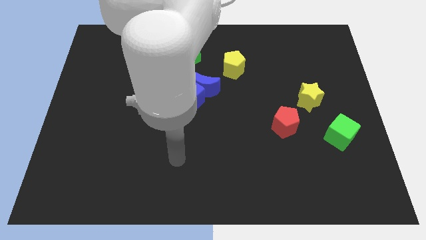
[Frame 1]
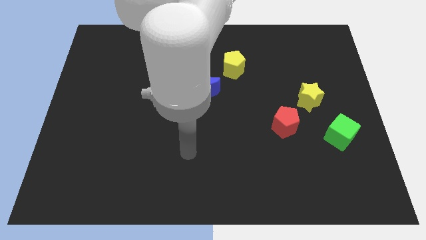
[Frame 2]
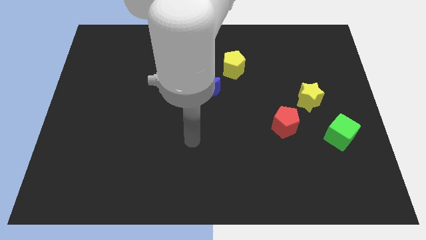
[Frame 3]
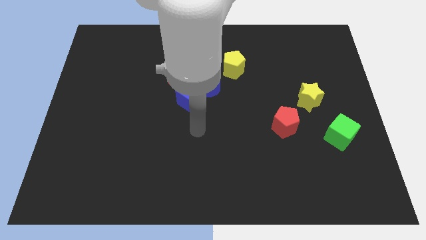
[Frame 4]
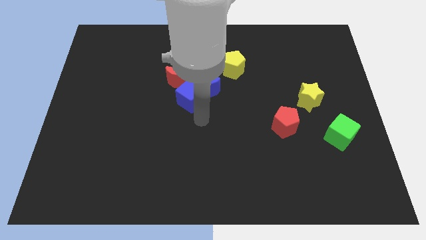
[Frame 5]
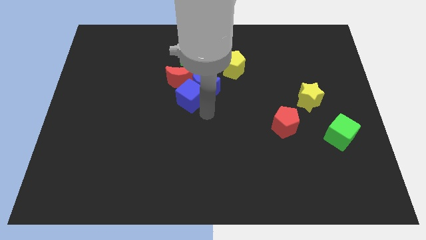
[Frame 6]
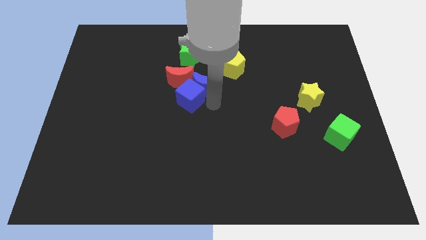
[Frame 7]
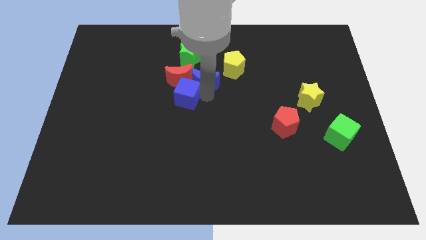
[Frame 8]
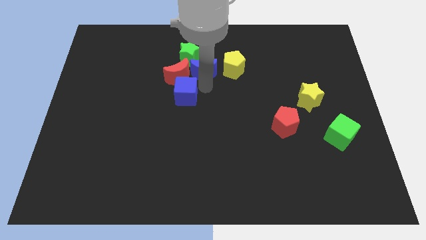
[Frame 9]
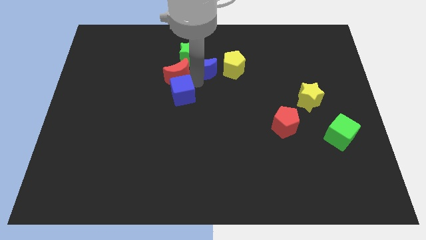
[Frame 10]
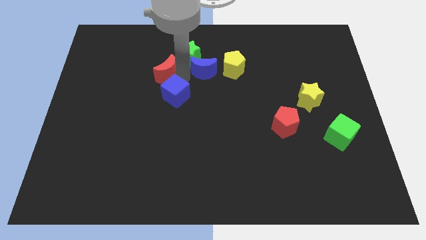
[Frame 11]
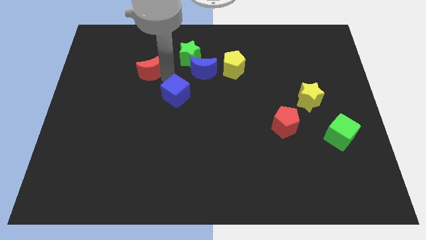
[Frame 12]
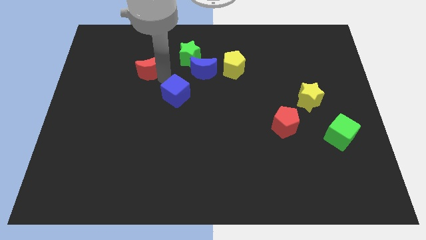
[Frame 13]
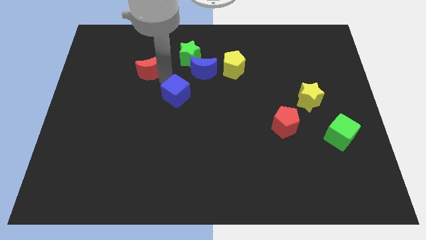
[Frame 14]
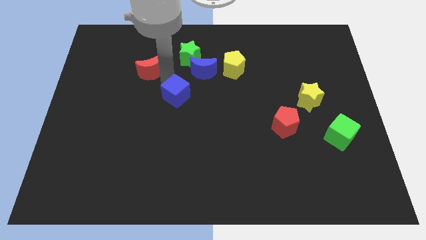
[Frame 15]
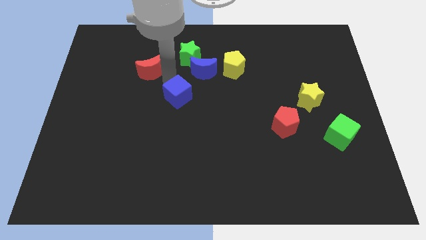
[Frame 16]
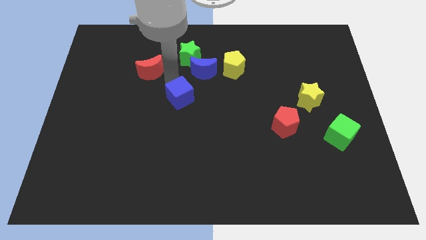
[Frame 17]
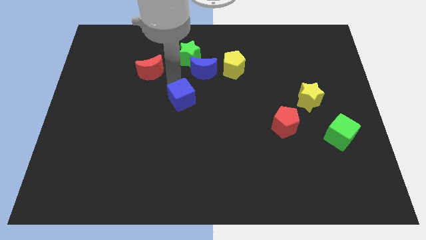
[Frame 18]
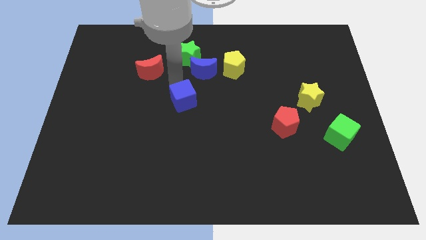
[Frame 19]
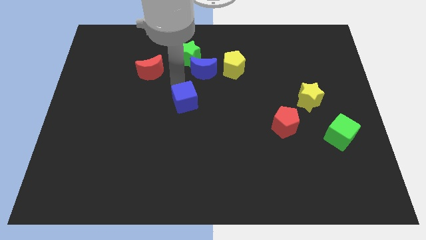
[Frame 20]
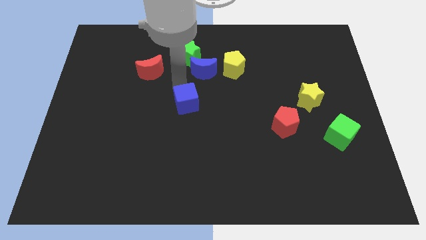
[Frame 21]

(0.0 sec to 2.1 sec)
move the blue cube away from the blue moon and red moon

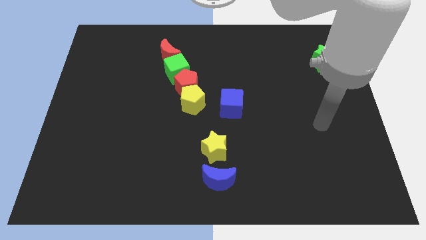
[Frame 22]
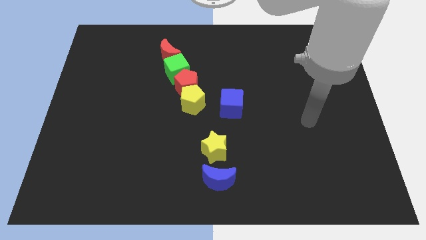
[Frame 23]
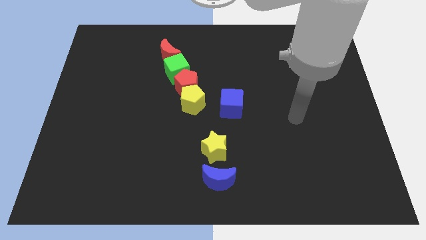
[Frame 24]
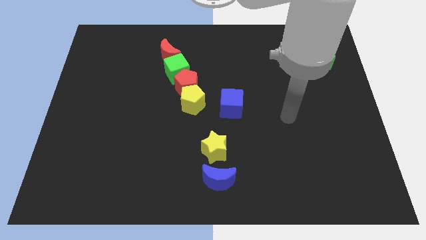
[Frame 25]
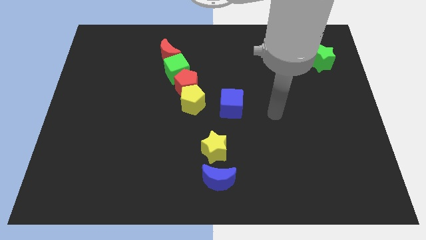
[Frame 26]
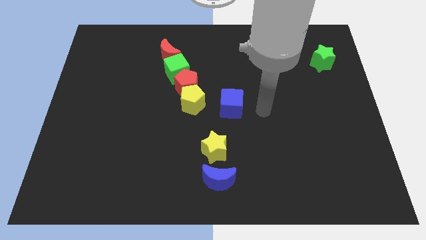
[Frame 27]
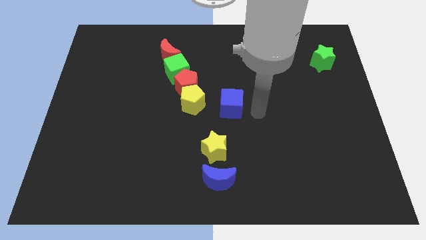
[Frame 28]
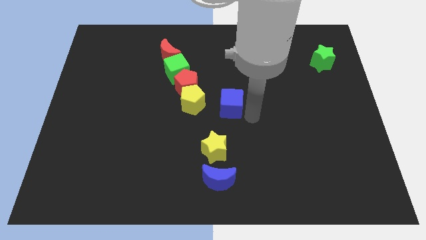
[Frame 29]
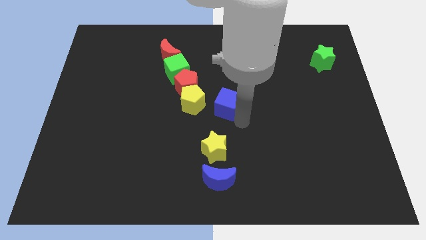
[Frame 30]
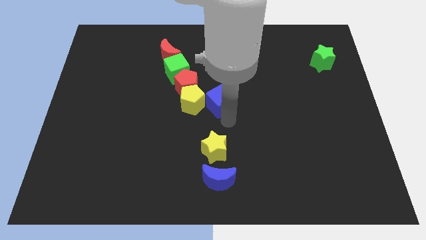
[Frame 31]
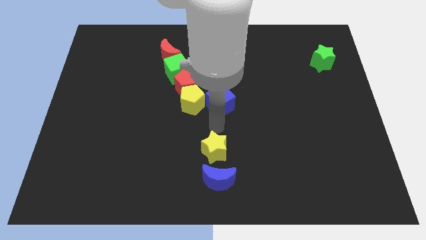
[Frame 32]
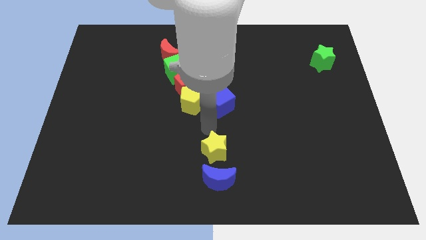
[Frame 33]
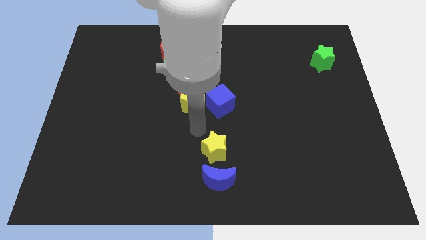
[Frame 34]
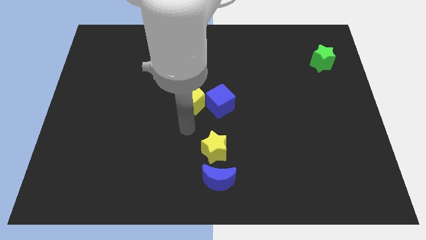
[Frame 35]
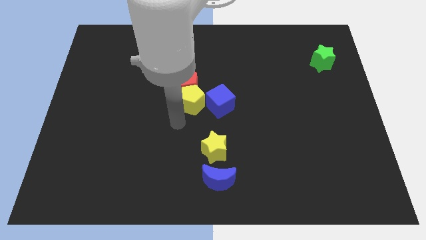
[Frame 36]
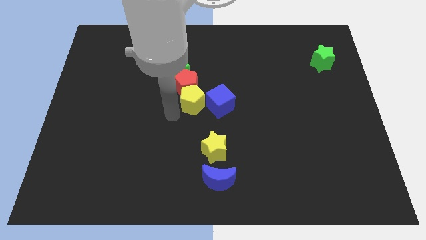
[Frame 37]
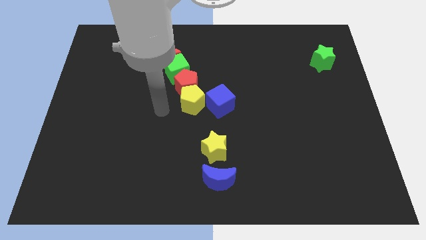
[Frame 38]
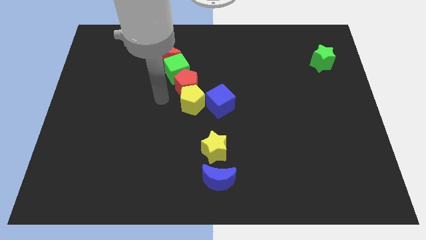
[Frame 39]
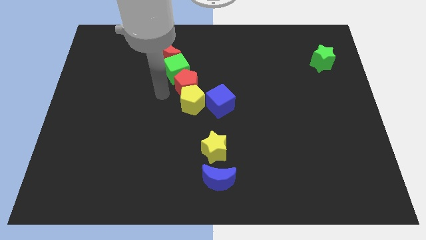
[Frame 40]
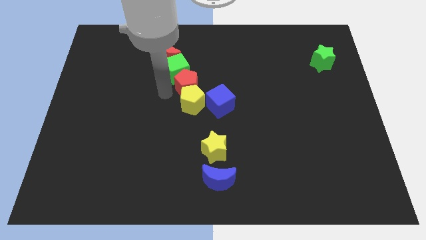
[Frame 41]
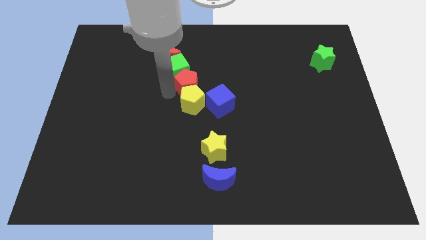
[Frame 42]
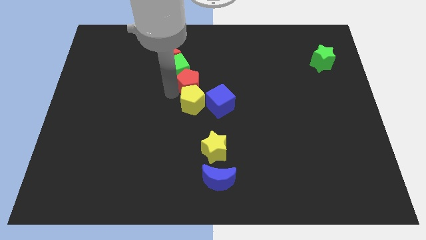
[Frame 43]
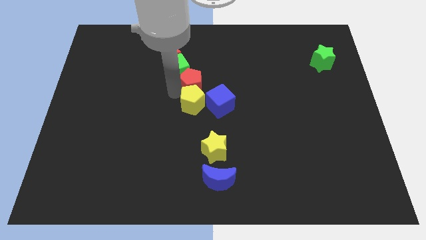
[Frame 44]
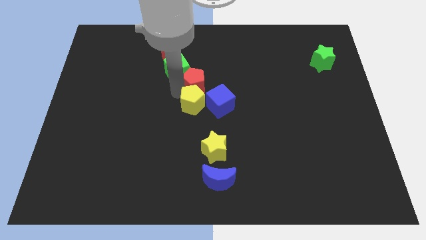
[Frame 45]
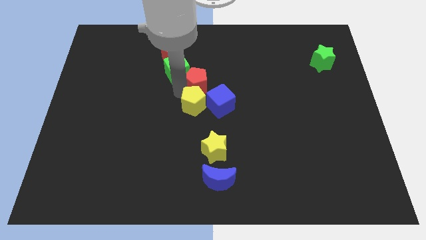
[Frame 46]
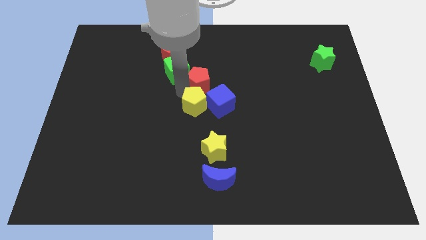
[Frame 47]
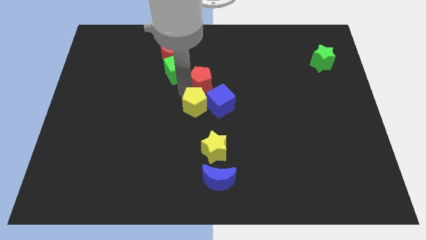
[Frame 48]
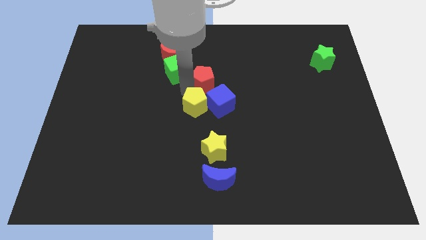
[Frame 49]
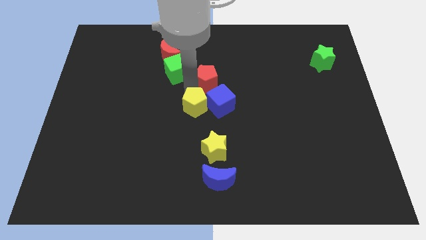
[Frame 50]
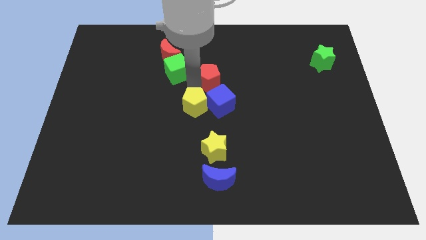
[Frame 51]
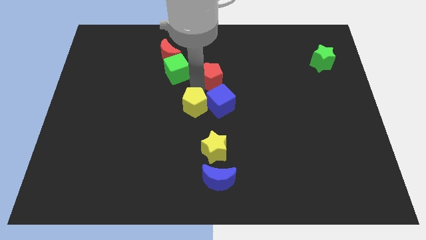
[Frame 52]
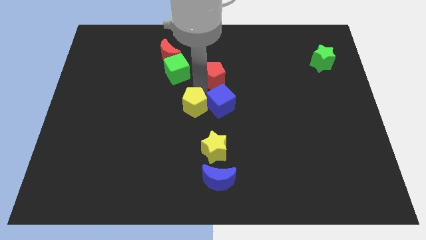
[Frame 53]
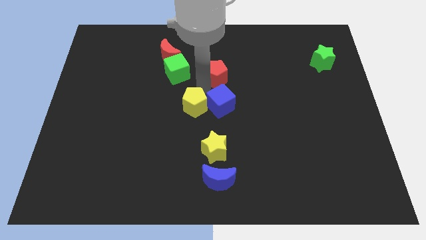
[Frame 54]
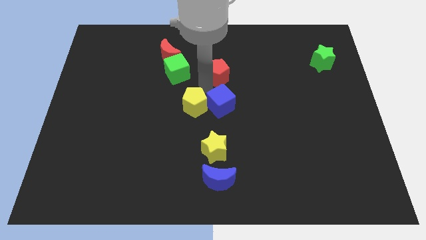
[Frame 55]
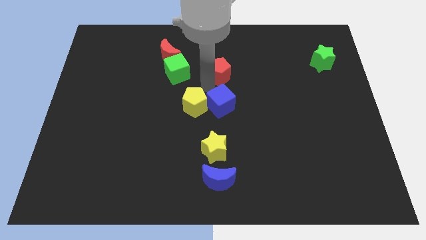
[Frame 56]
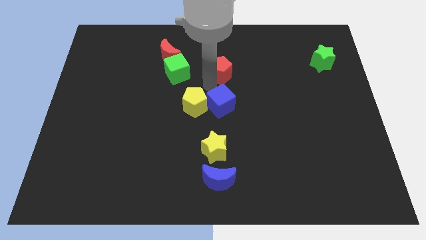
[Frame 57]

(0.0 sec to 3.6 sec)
move the red pentagon away from the yellow pentagon and green cube

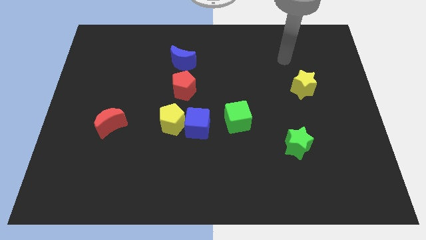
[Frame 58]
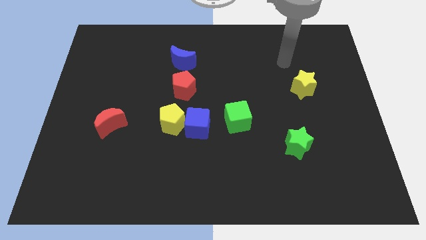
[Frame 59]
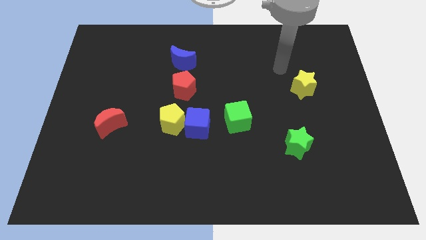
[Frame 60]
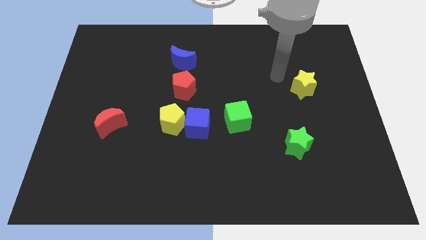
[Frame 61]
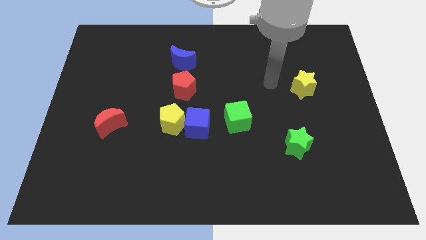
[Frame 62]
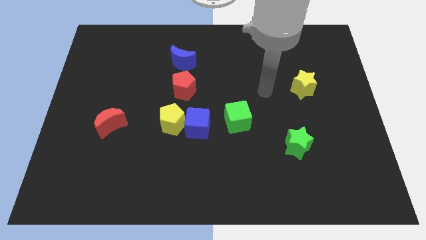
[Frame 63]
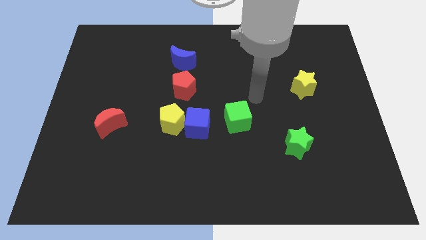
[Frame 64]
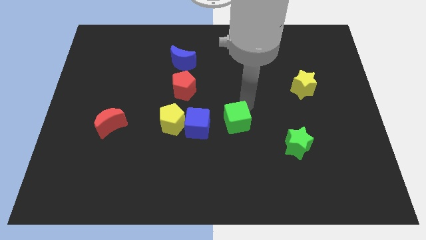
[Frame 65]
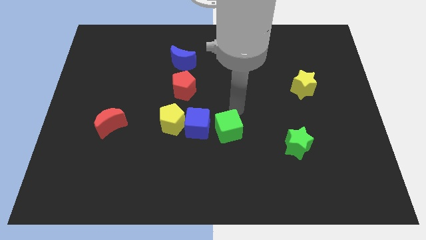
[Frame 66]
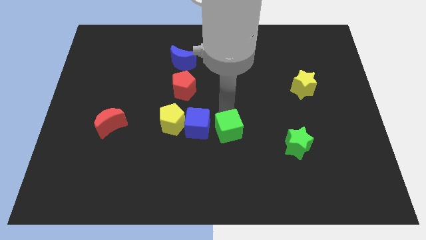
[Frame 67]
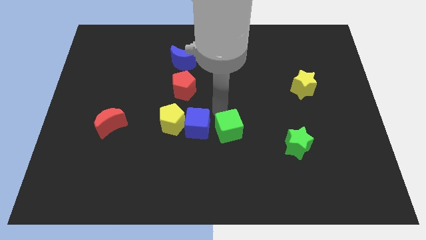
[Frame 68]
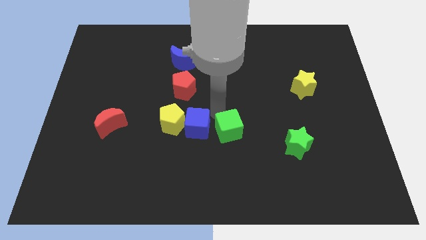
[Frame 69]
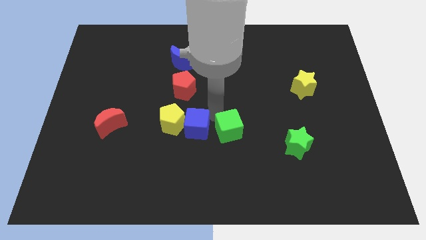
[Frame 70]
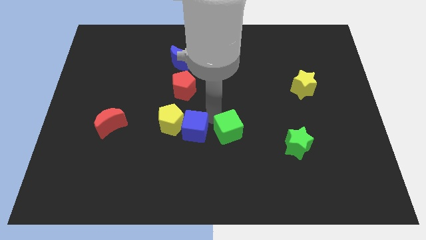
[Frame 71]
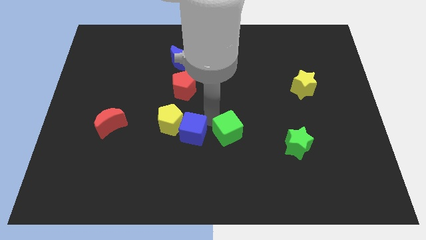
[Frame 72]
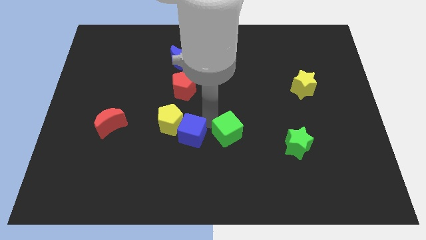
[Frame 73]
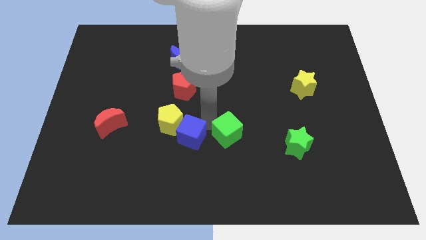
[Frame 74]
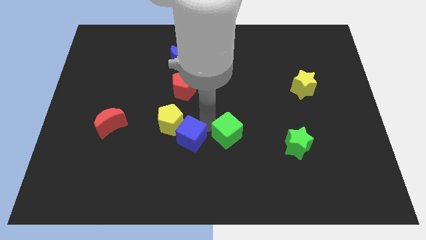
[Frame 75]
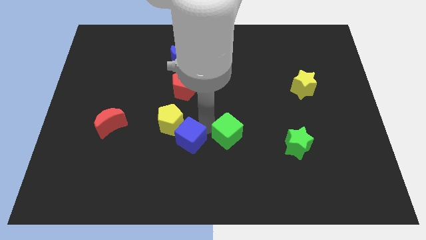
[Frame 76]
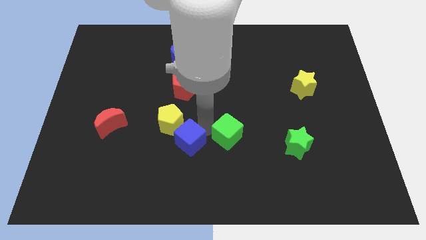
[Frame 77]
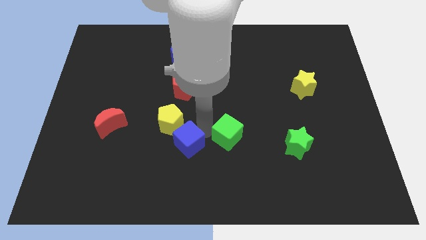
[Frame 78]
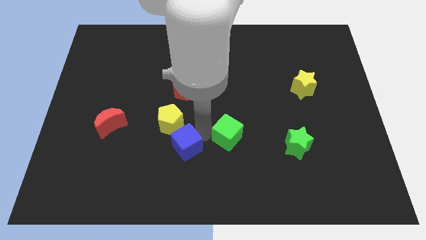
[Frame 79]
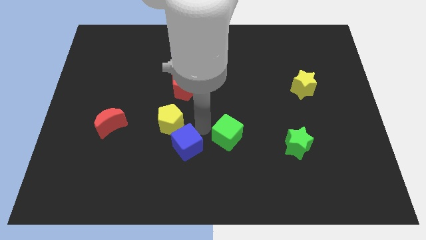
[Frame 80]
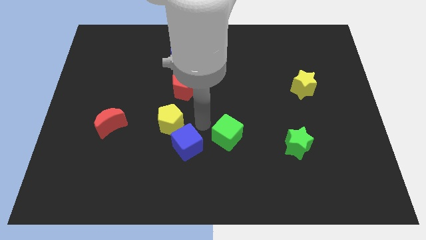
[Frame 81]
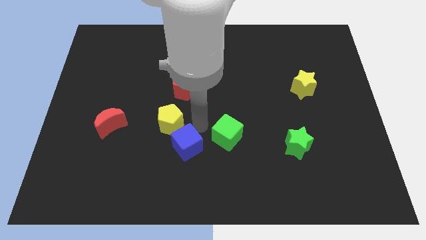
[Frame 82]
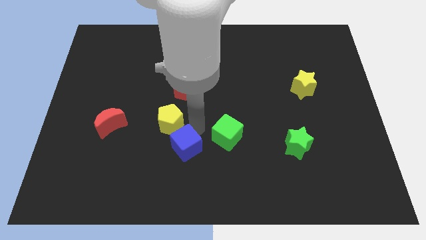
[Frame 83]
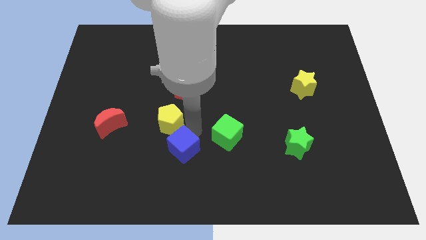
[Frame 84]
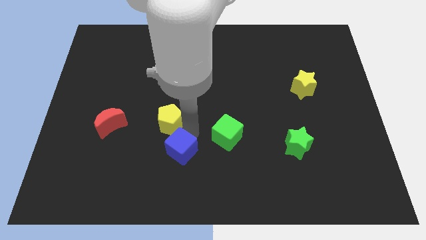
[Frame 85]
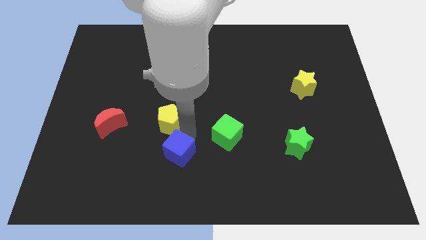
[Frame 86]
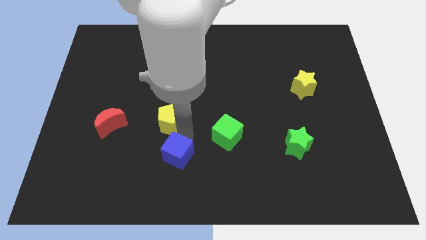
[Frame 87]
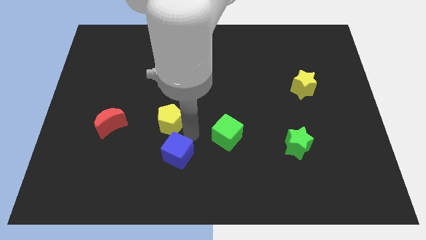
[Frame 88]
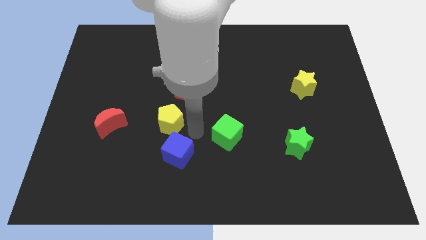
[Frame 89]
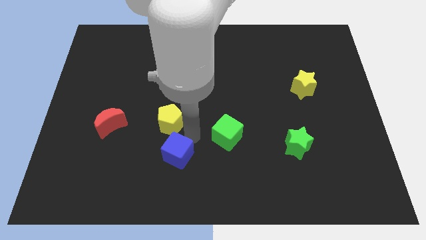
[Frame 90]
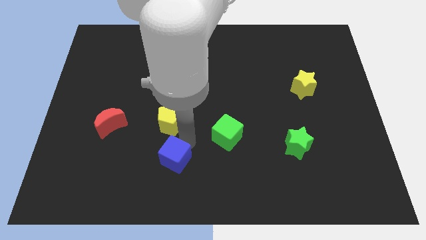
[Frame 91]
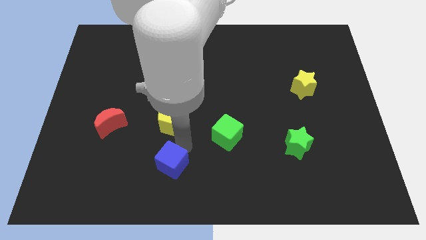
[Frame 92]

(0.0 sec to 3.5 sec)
pull the blue cube apart from the yellow pentagon and green cube

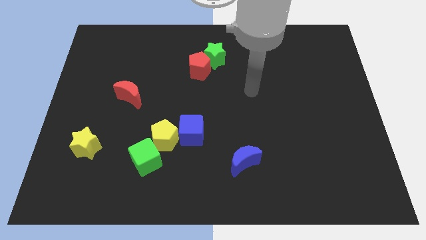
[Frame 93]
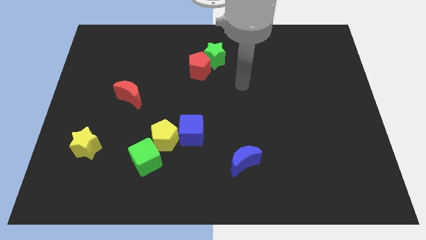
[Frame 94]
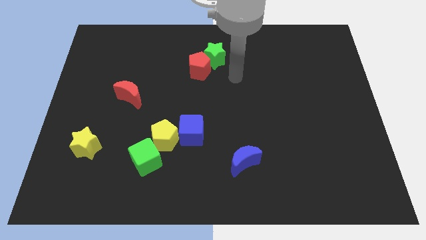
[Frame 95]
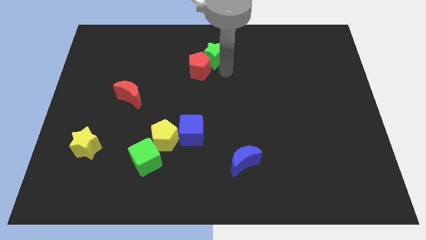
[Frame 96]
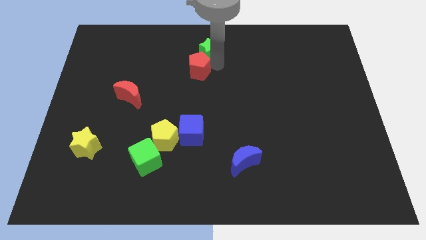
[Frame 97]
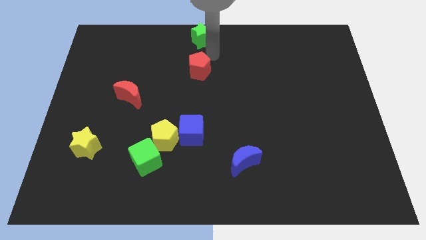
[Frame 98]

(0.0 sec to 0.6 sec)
separate the red pentagon from the green star
